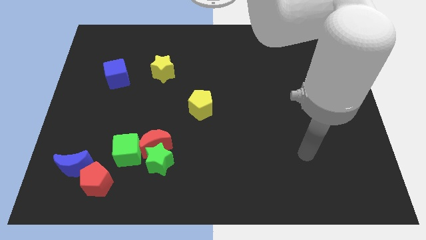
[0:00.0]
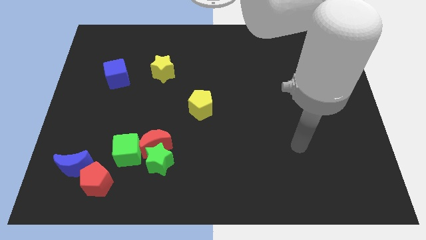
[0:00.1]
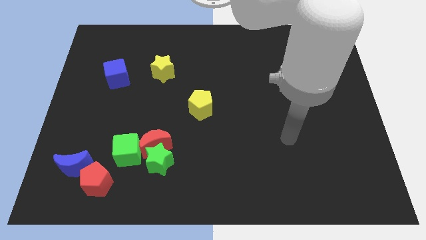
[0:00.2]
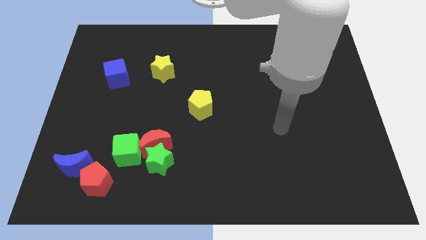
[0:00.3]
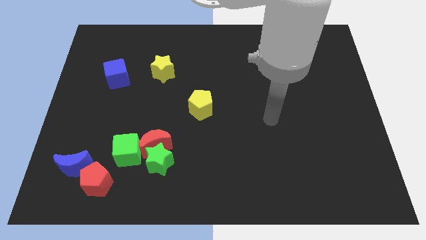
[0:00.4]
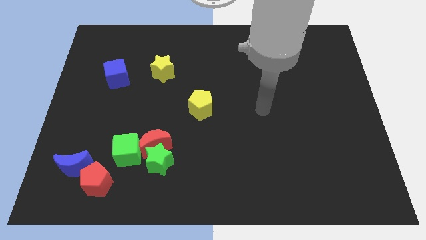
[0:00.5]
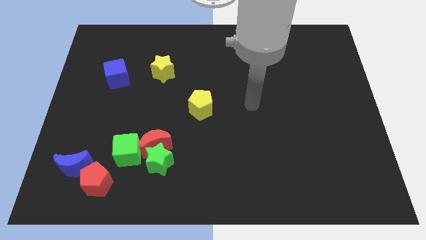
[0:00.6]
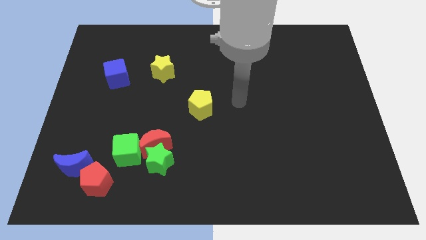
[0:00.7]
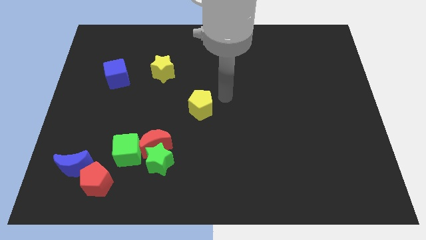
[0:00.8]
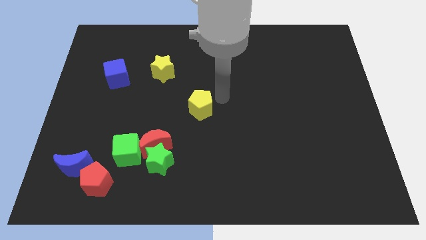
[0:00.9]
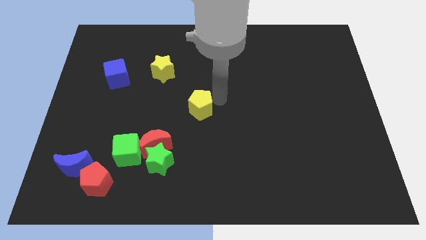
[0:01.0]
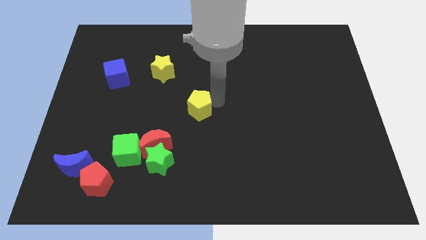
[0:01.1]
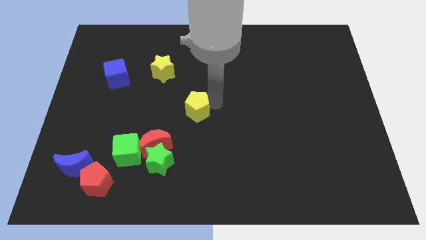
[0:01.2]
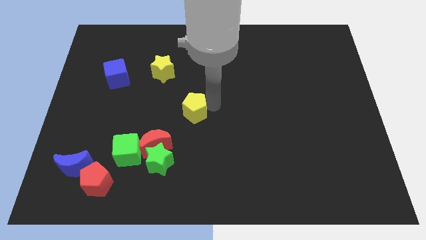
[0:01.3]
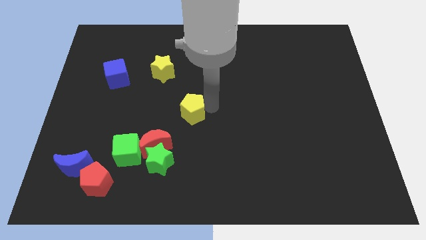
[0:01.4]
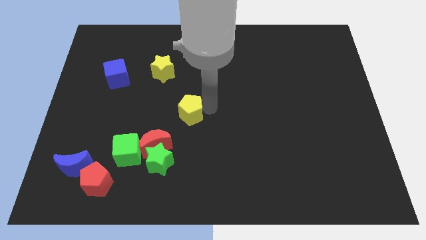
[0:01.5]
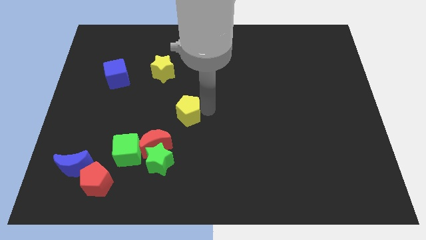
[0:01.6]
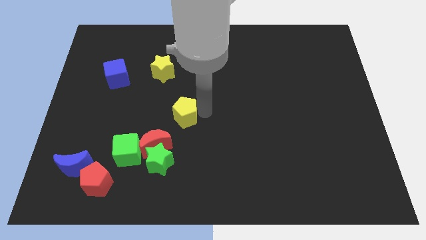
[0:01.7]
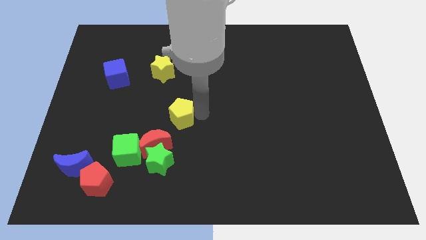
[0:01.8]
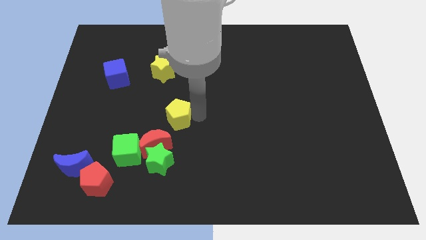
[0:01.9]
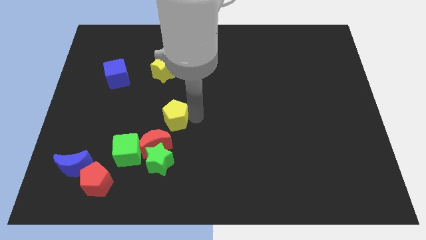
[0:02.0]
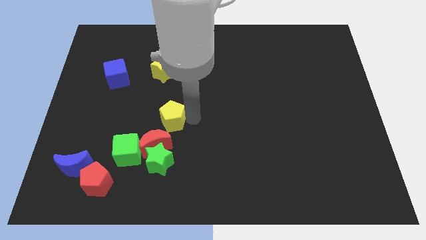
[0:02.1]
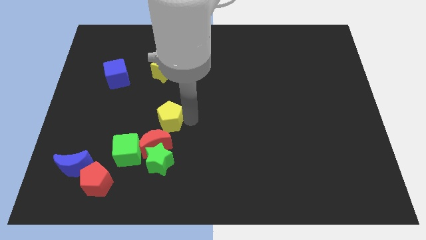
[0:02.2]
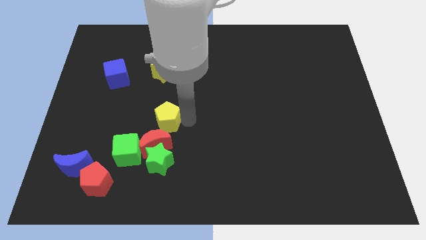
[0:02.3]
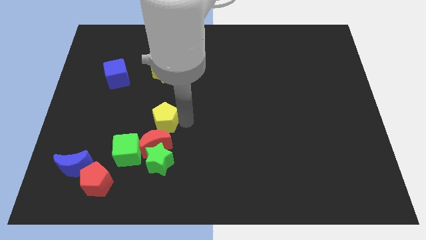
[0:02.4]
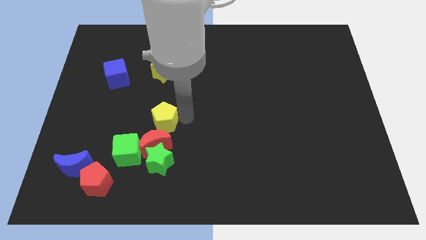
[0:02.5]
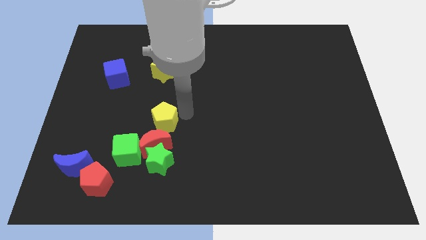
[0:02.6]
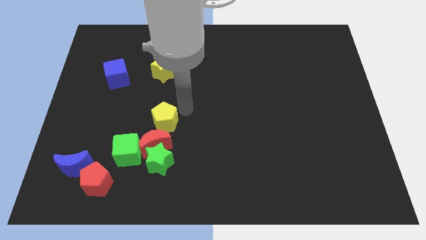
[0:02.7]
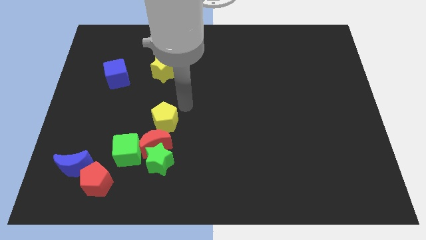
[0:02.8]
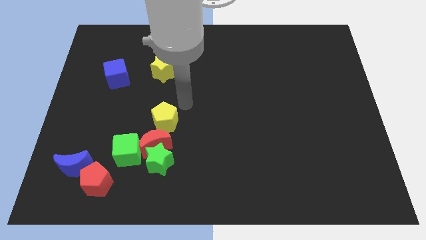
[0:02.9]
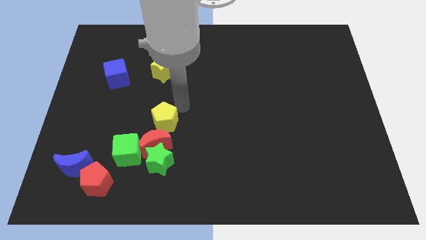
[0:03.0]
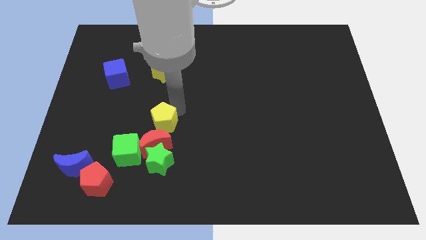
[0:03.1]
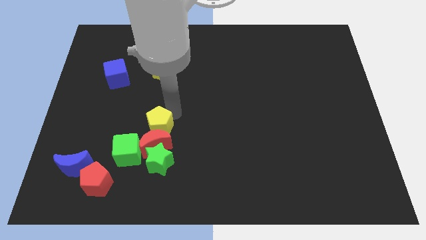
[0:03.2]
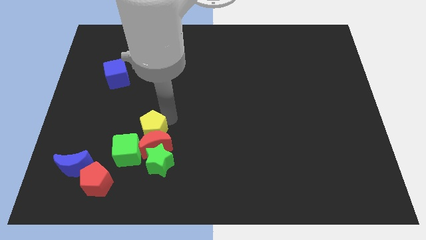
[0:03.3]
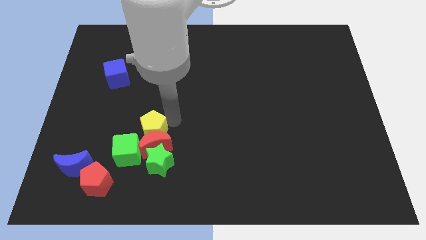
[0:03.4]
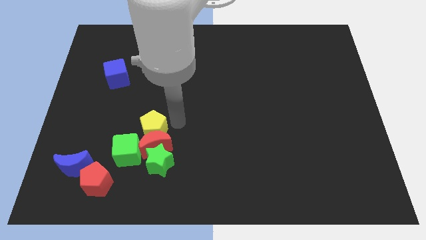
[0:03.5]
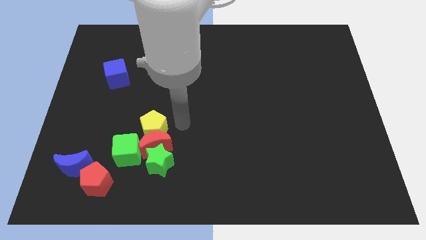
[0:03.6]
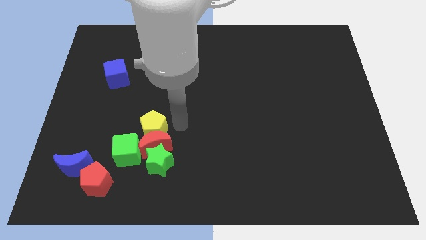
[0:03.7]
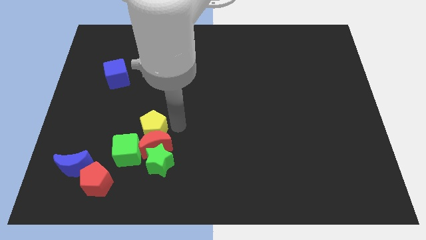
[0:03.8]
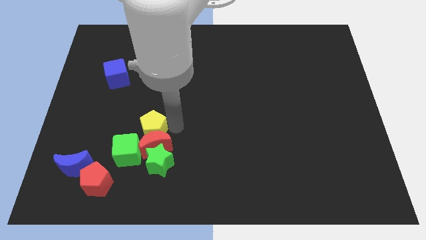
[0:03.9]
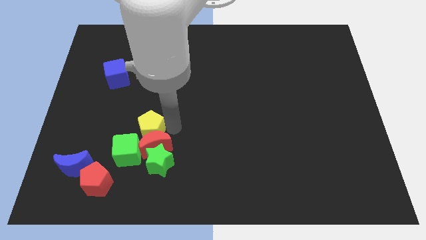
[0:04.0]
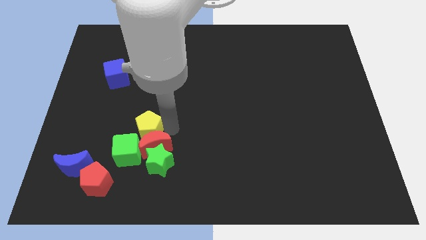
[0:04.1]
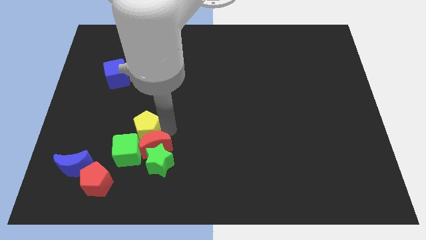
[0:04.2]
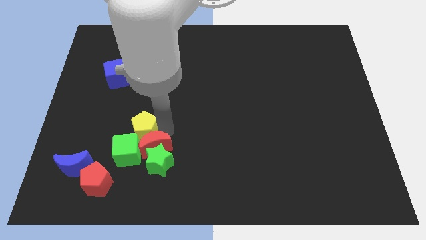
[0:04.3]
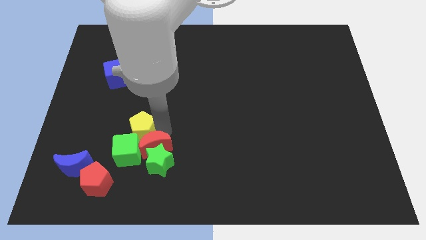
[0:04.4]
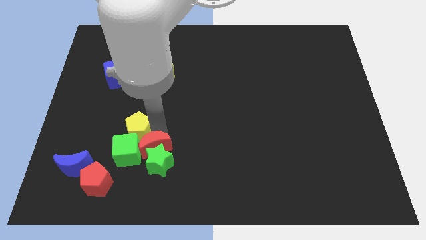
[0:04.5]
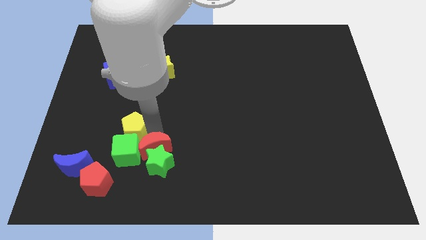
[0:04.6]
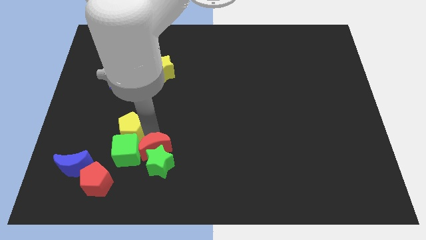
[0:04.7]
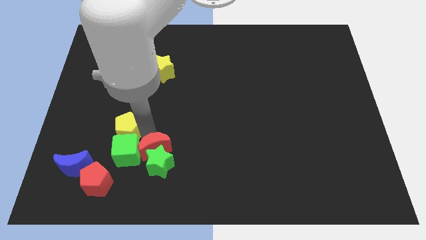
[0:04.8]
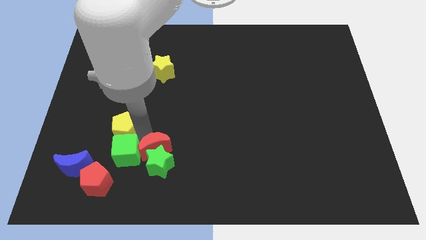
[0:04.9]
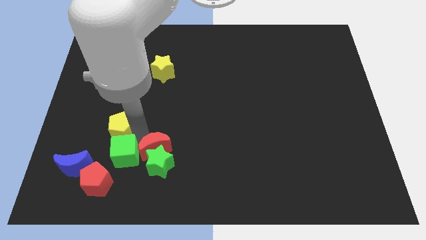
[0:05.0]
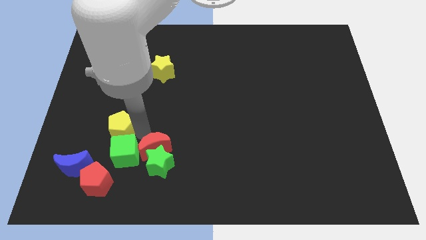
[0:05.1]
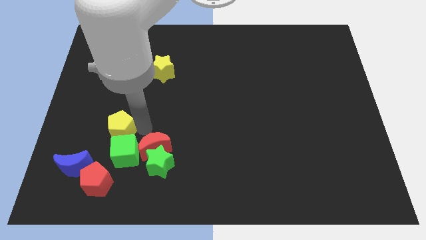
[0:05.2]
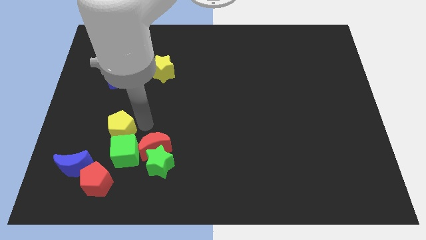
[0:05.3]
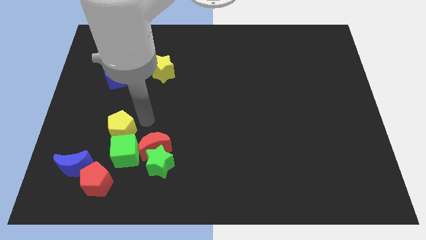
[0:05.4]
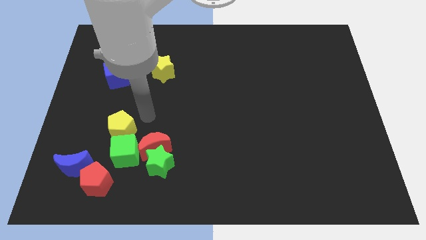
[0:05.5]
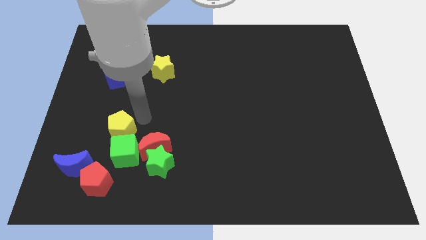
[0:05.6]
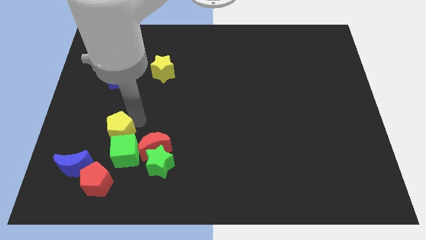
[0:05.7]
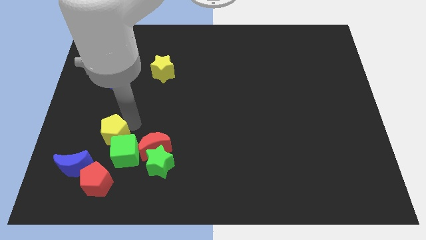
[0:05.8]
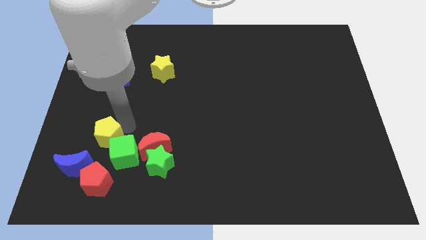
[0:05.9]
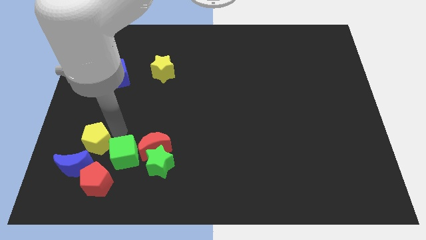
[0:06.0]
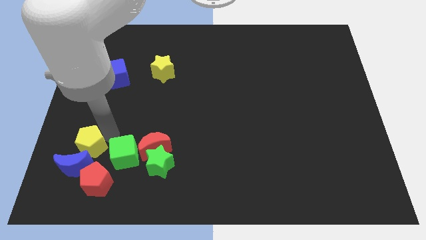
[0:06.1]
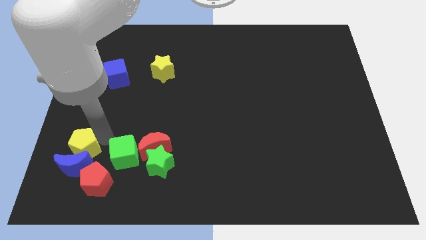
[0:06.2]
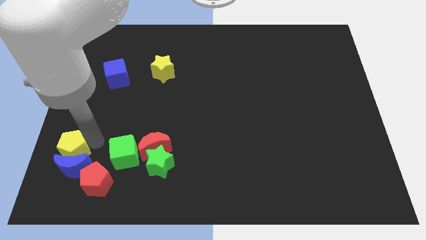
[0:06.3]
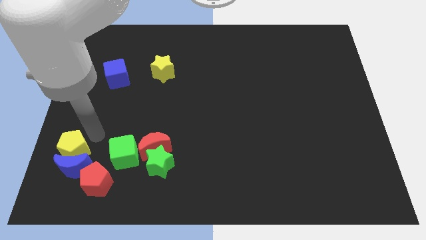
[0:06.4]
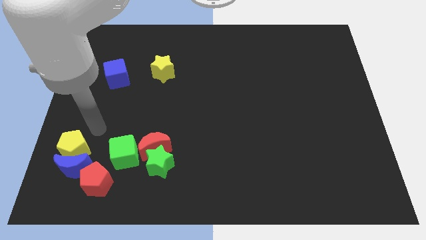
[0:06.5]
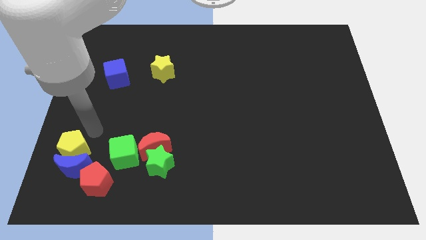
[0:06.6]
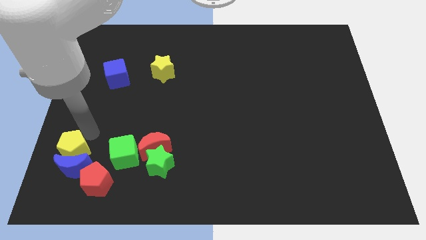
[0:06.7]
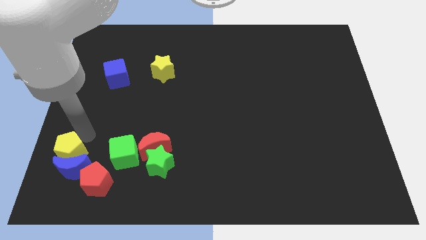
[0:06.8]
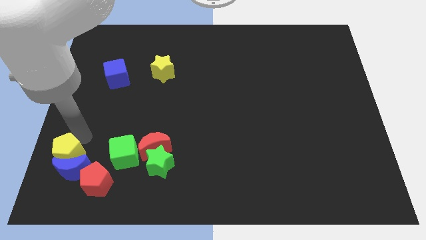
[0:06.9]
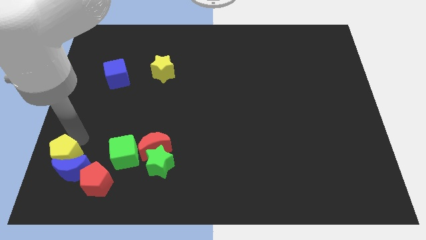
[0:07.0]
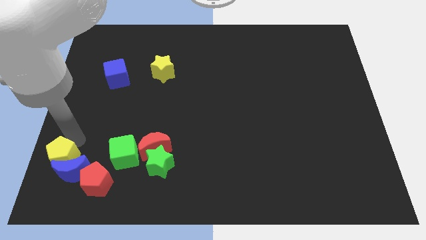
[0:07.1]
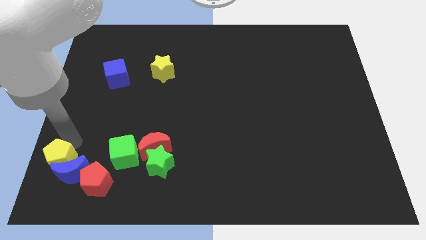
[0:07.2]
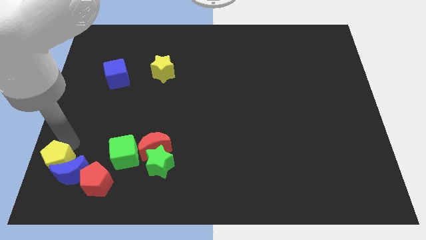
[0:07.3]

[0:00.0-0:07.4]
move the yellow pentagon to the lower left corner
